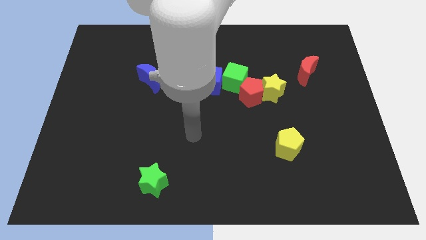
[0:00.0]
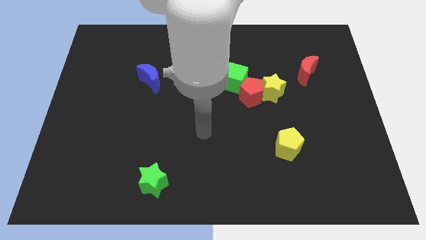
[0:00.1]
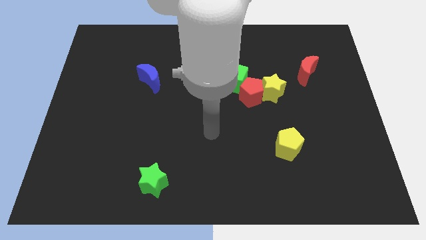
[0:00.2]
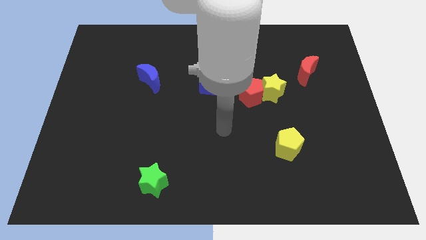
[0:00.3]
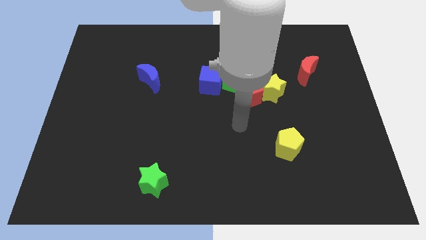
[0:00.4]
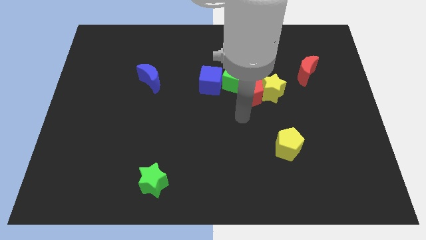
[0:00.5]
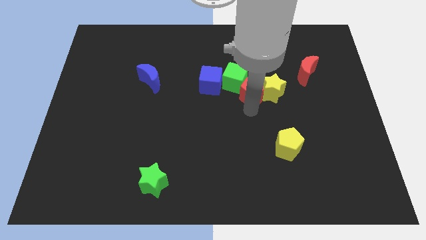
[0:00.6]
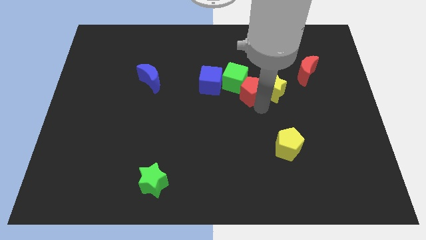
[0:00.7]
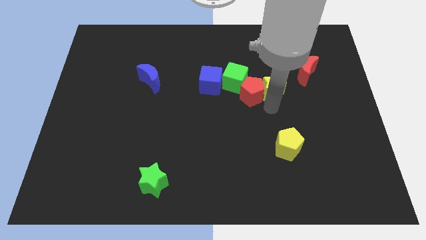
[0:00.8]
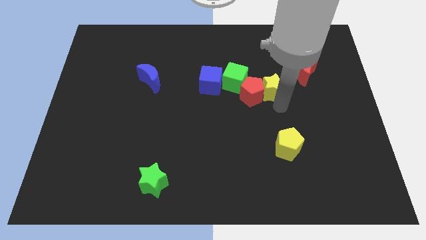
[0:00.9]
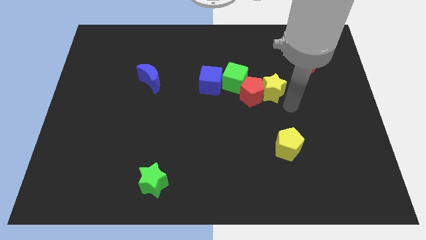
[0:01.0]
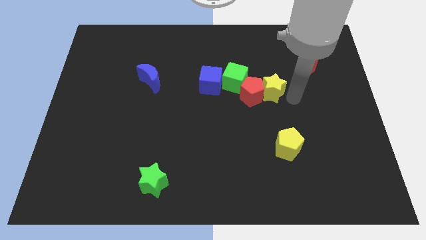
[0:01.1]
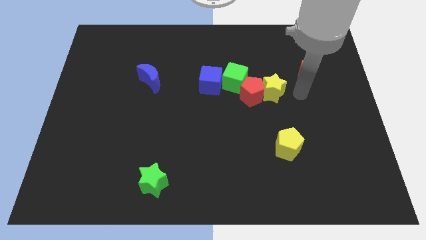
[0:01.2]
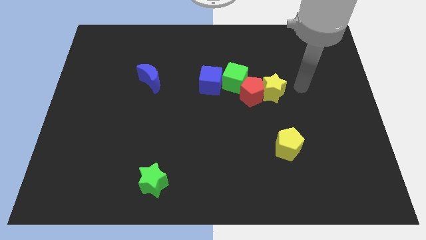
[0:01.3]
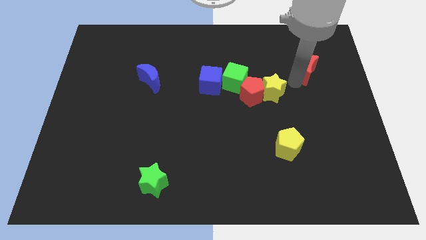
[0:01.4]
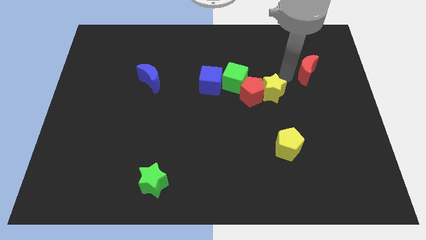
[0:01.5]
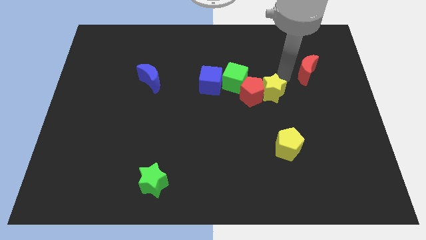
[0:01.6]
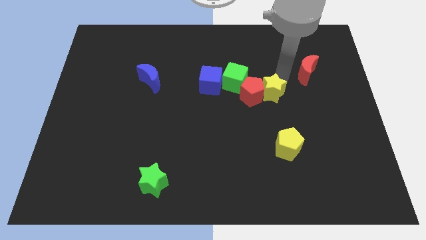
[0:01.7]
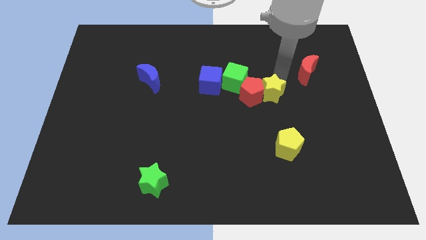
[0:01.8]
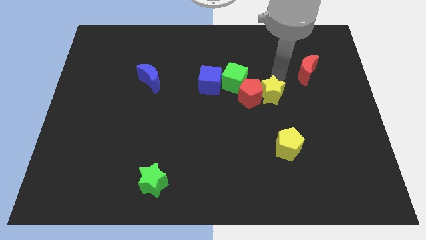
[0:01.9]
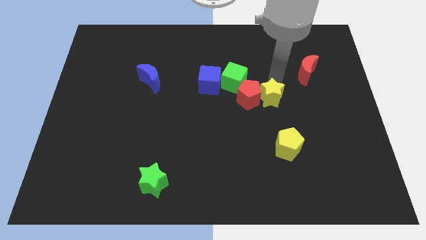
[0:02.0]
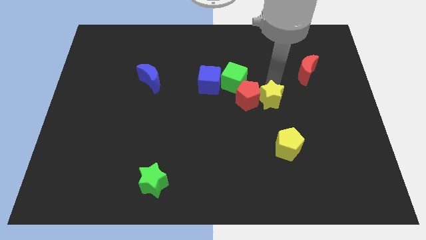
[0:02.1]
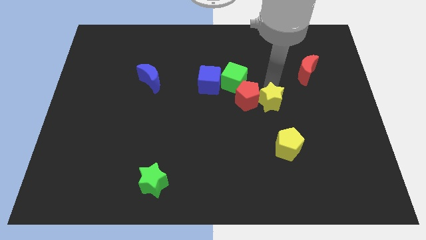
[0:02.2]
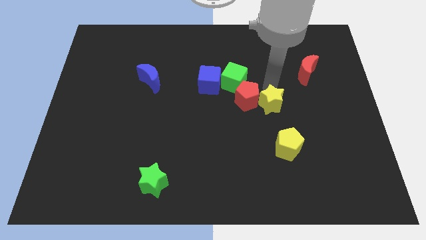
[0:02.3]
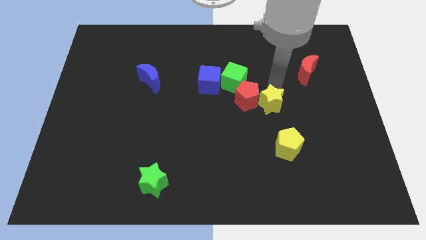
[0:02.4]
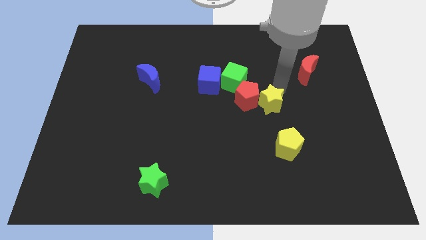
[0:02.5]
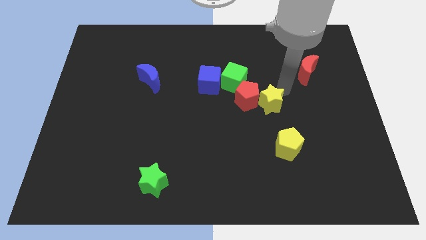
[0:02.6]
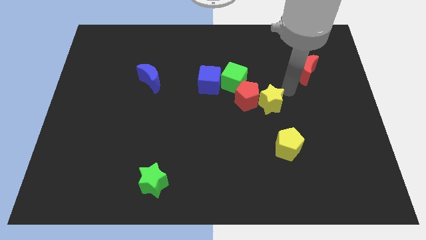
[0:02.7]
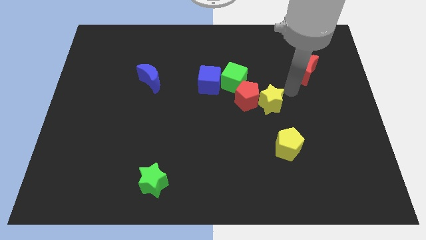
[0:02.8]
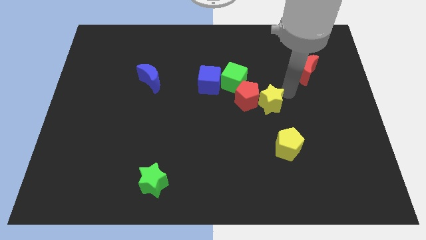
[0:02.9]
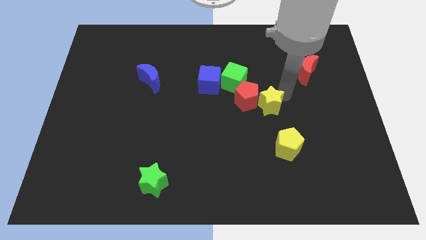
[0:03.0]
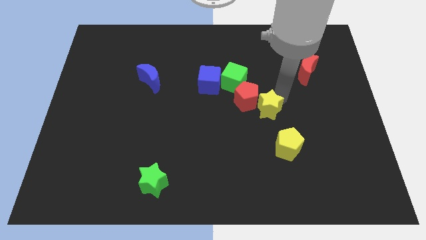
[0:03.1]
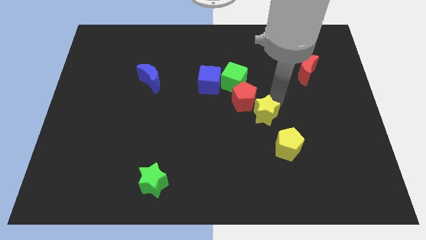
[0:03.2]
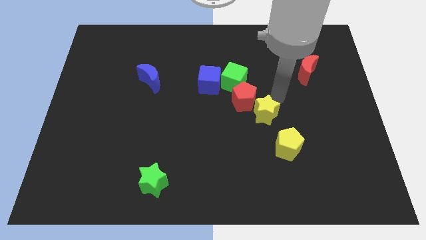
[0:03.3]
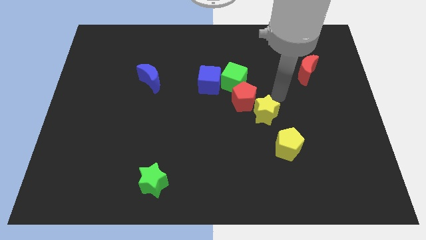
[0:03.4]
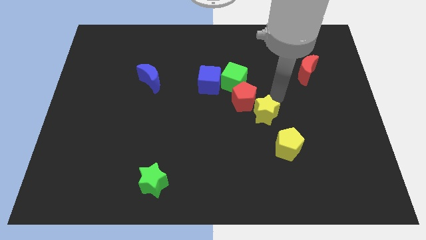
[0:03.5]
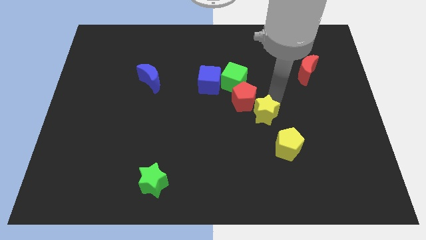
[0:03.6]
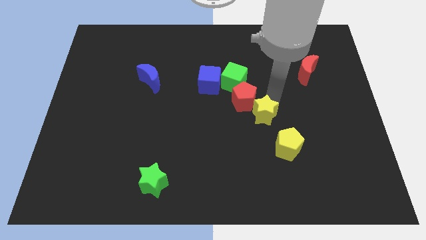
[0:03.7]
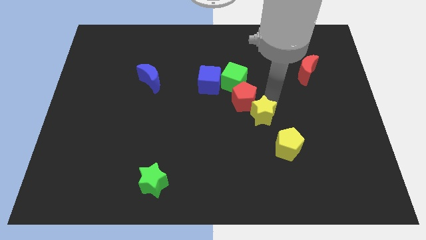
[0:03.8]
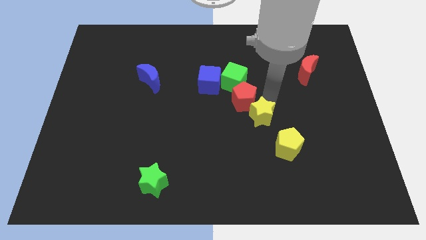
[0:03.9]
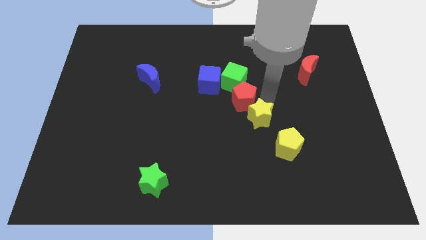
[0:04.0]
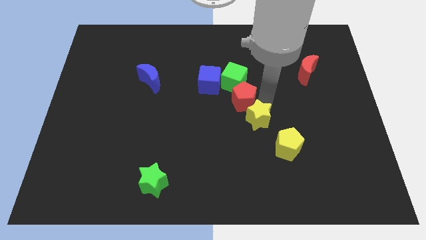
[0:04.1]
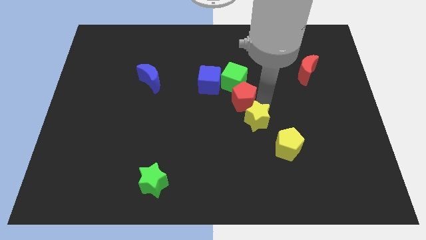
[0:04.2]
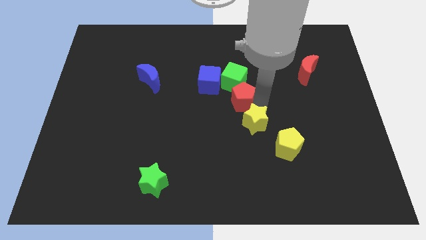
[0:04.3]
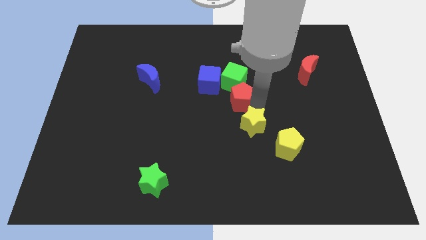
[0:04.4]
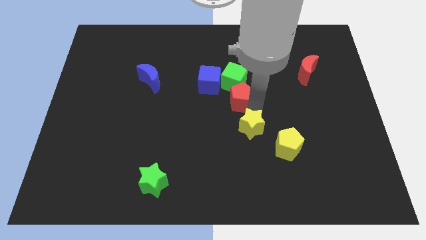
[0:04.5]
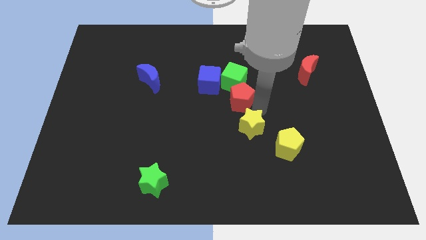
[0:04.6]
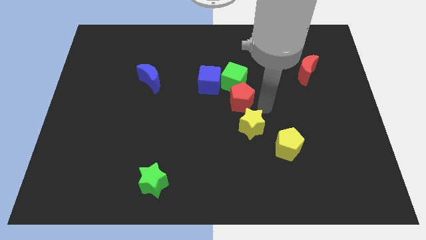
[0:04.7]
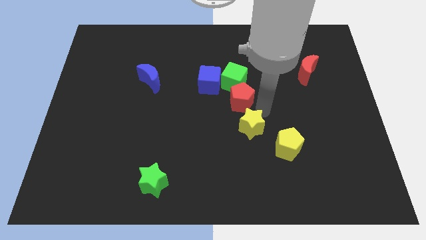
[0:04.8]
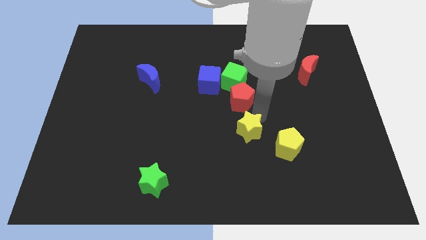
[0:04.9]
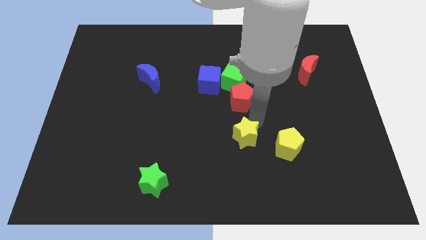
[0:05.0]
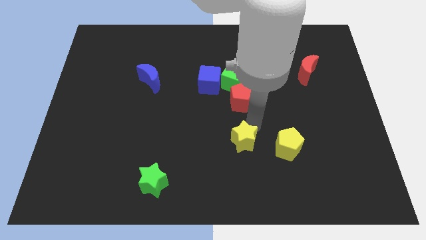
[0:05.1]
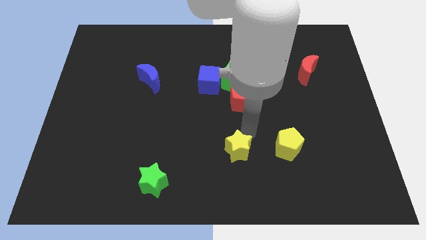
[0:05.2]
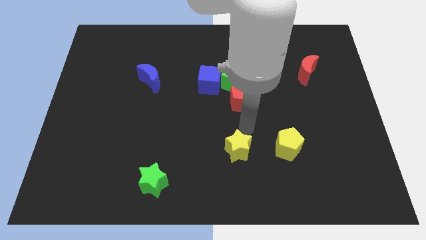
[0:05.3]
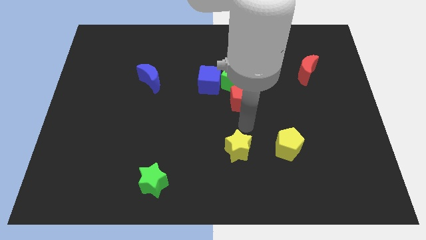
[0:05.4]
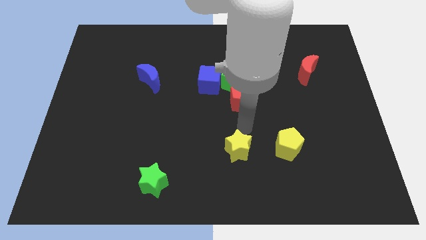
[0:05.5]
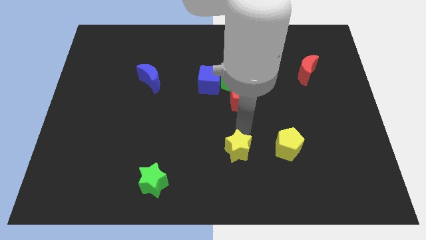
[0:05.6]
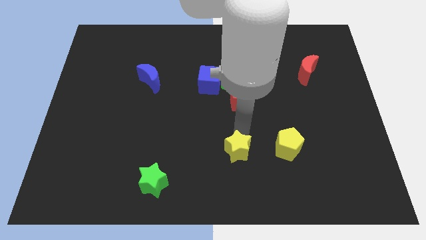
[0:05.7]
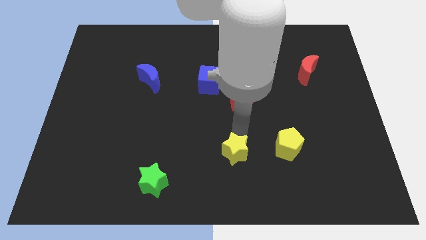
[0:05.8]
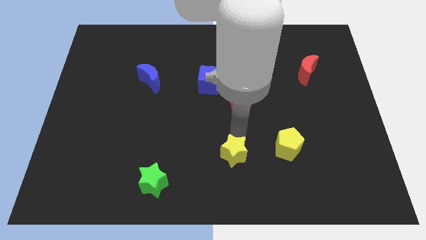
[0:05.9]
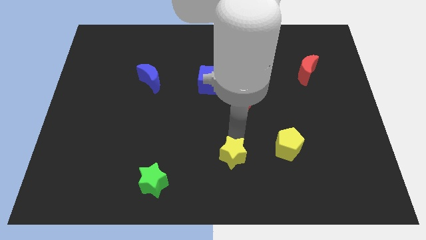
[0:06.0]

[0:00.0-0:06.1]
push the yellow star to the bottom side

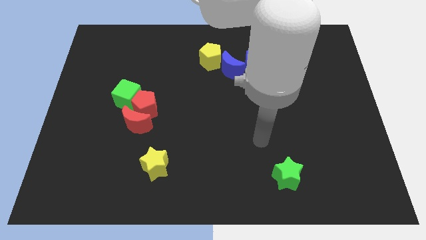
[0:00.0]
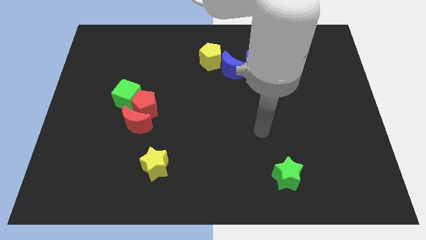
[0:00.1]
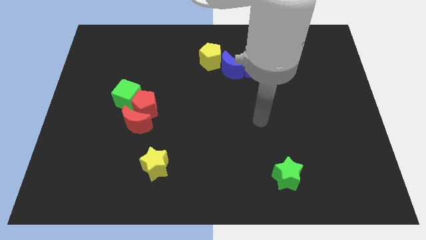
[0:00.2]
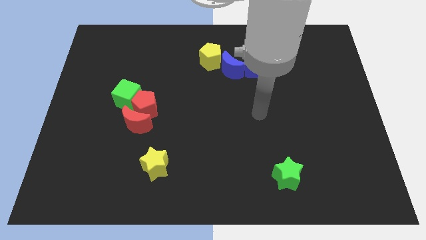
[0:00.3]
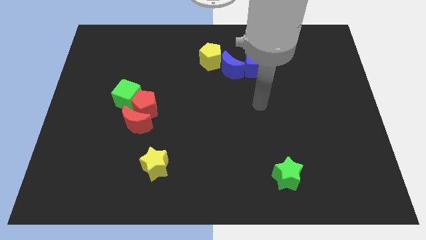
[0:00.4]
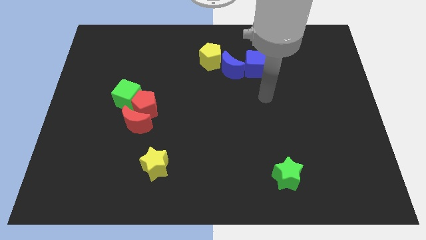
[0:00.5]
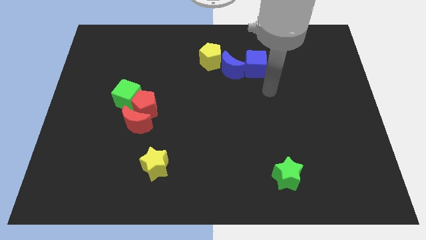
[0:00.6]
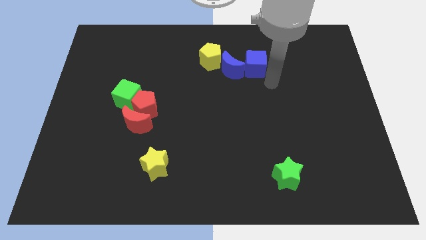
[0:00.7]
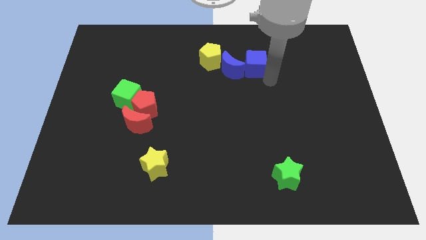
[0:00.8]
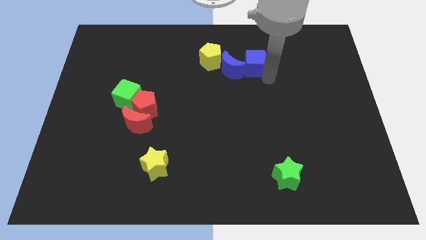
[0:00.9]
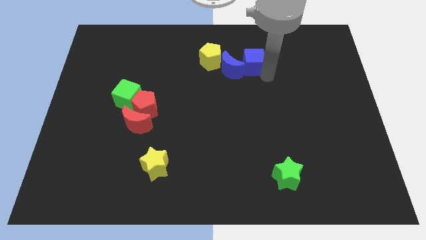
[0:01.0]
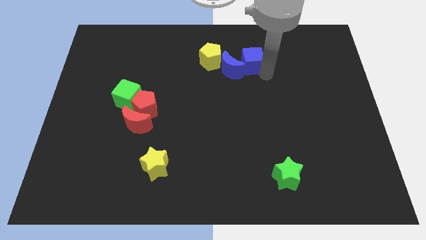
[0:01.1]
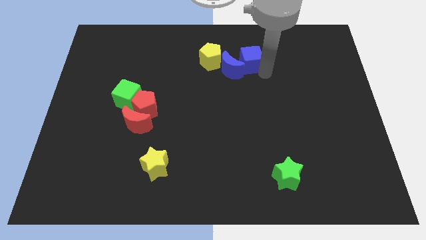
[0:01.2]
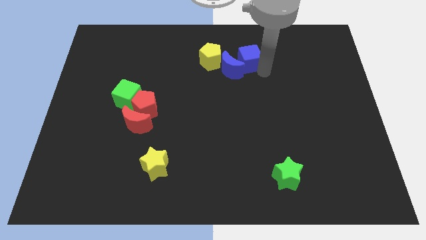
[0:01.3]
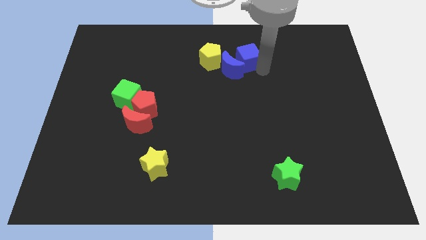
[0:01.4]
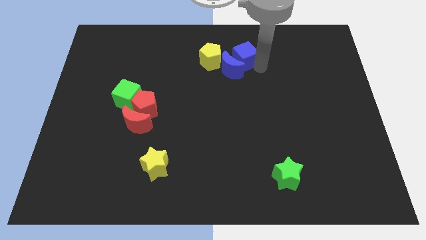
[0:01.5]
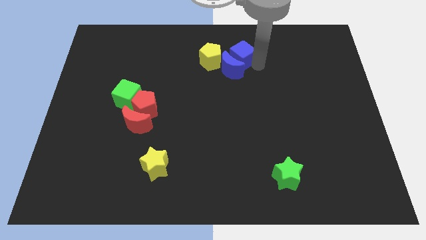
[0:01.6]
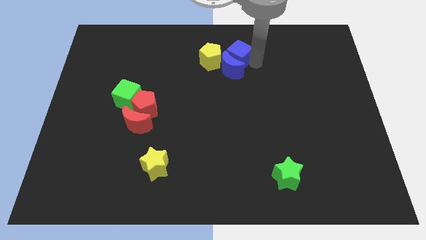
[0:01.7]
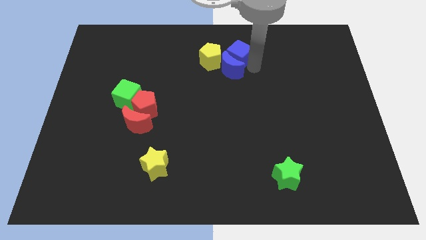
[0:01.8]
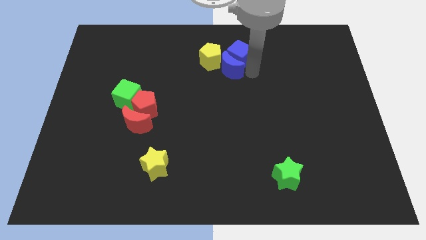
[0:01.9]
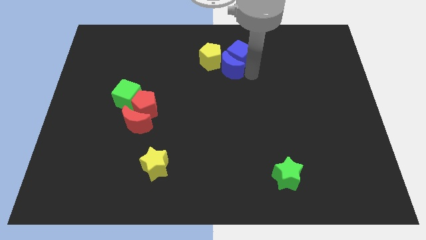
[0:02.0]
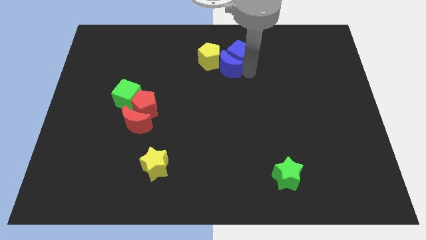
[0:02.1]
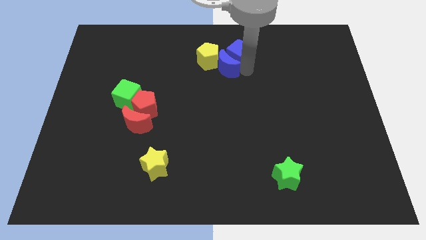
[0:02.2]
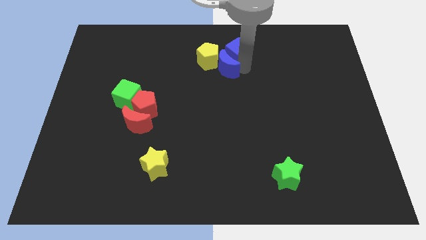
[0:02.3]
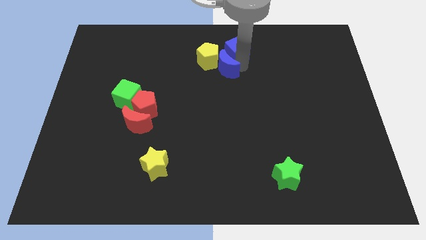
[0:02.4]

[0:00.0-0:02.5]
put the blue cube to the towards your base
